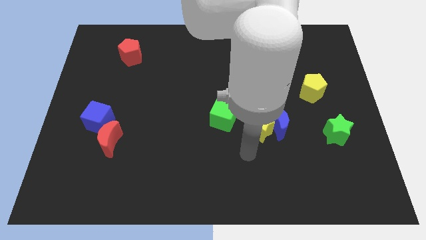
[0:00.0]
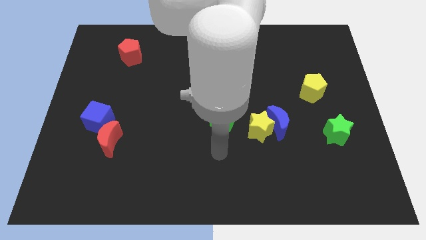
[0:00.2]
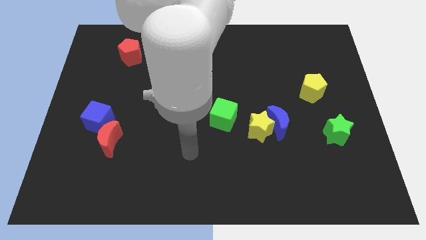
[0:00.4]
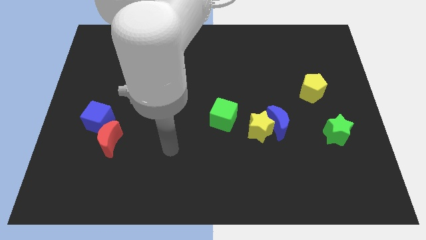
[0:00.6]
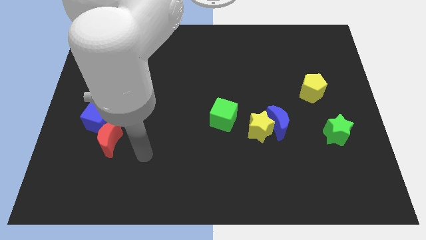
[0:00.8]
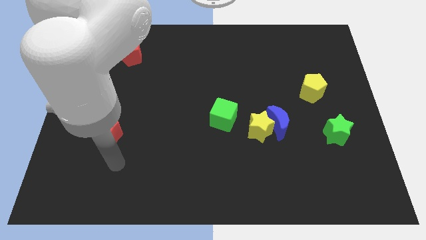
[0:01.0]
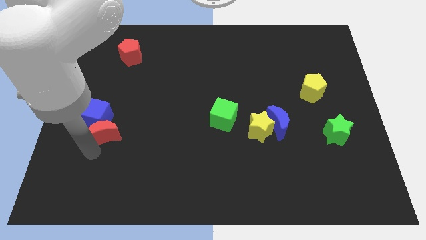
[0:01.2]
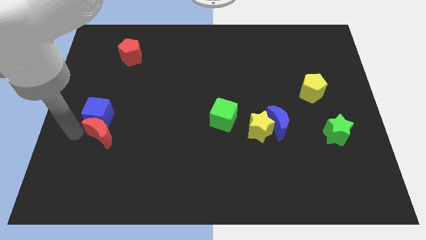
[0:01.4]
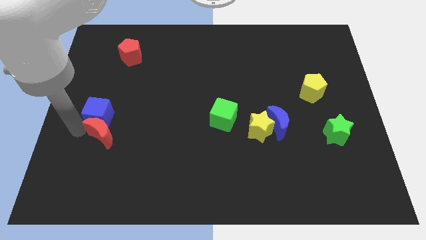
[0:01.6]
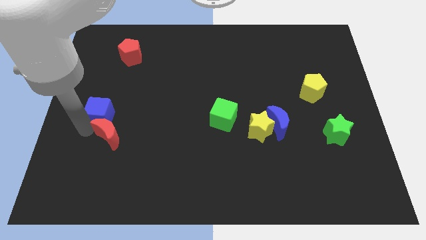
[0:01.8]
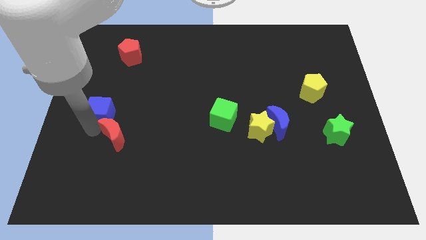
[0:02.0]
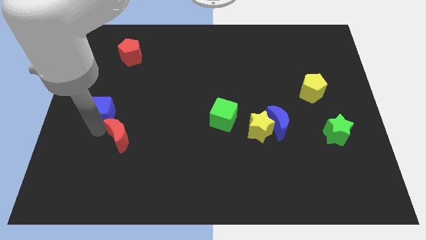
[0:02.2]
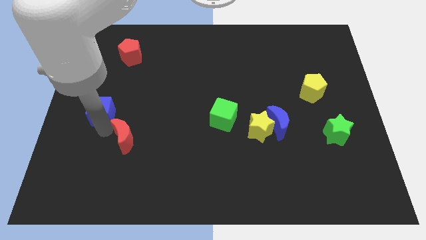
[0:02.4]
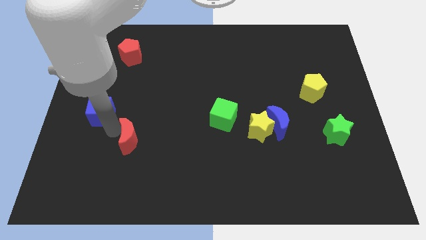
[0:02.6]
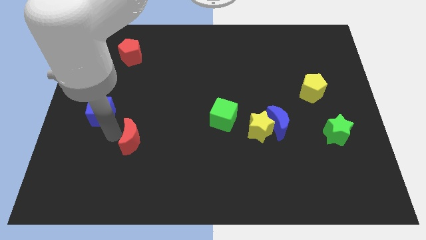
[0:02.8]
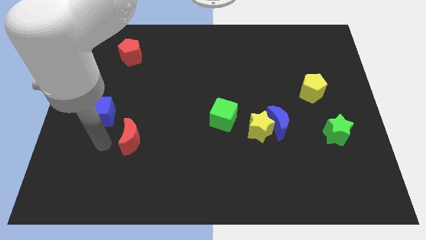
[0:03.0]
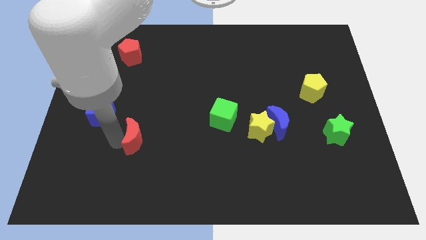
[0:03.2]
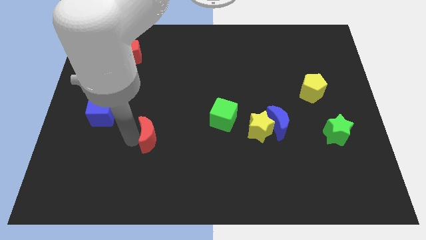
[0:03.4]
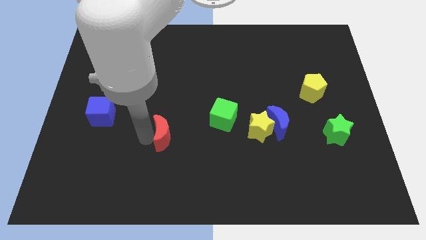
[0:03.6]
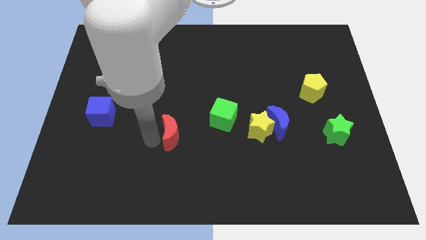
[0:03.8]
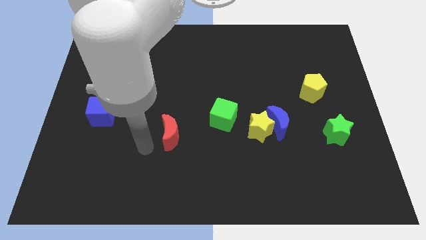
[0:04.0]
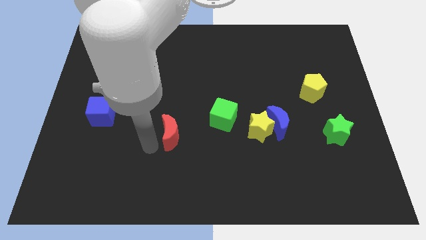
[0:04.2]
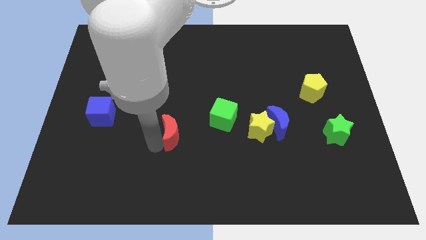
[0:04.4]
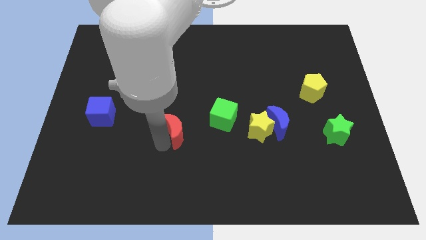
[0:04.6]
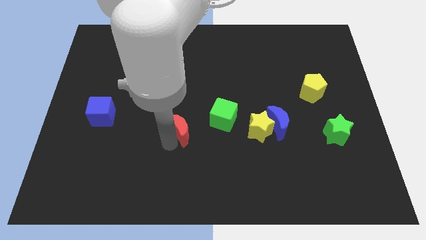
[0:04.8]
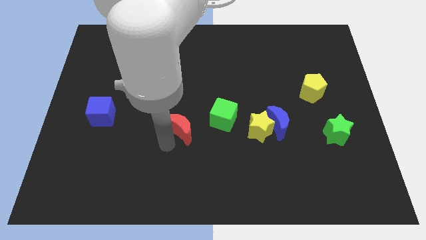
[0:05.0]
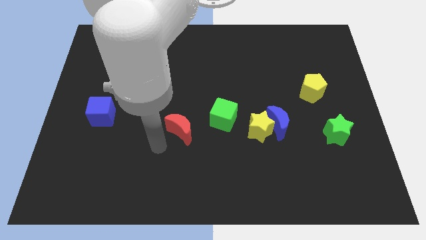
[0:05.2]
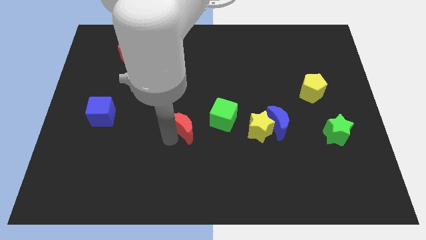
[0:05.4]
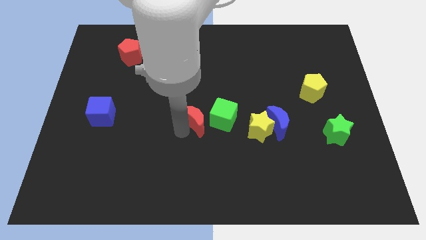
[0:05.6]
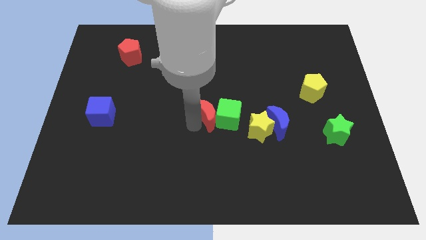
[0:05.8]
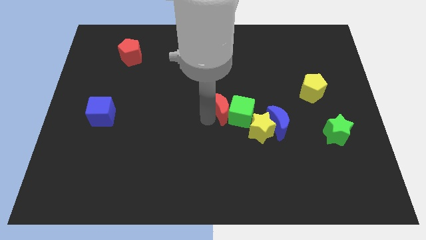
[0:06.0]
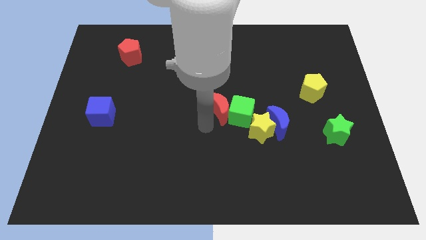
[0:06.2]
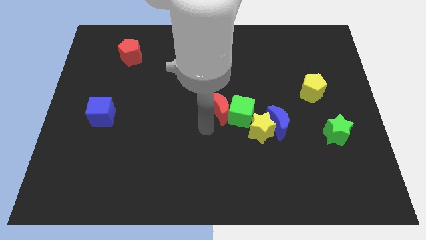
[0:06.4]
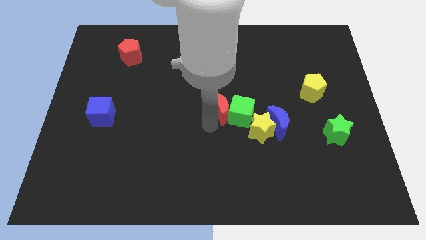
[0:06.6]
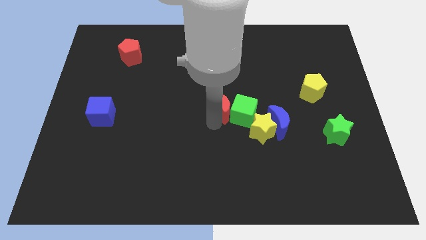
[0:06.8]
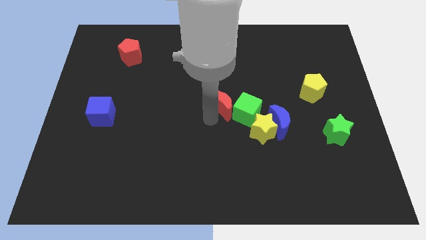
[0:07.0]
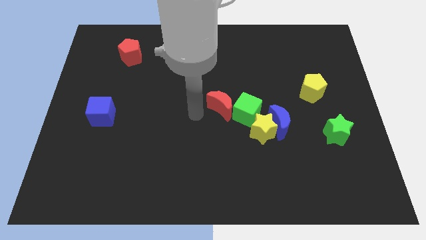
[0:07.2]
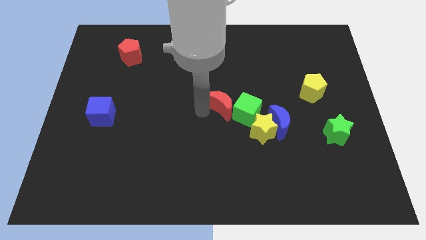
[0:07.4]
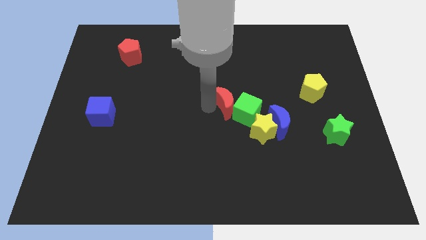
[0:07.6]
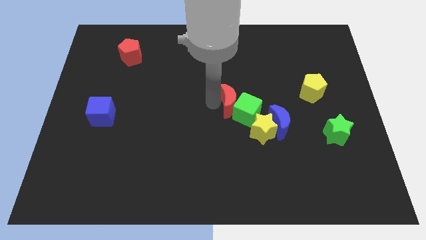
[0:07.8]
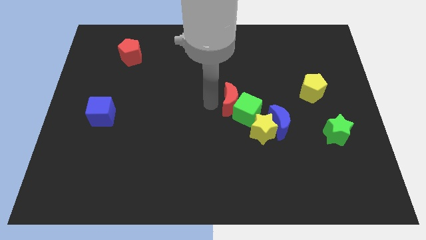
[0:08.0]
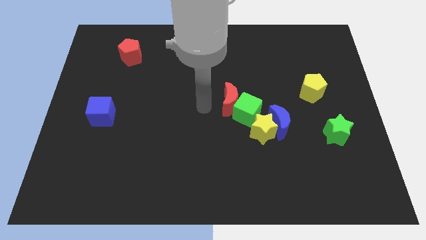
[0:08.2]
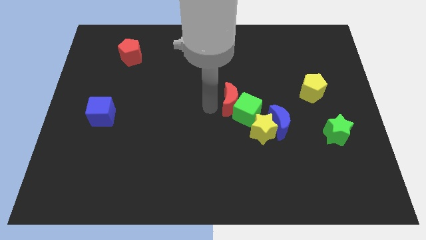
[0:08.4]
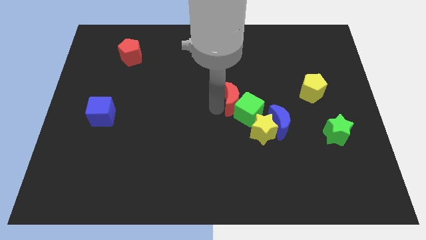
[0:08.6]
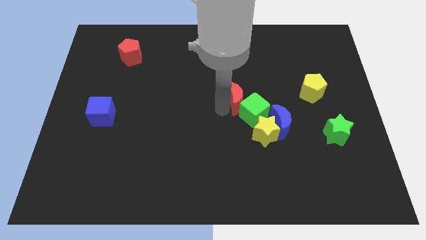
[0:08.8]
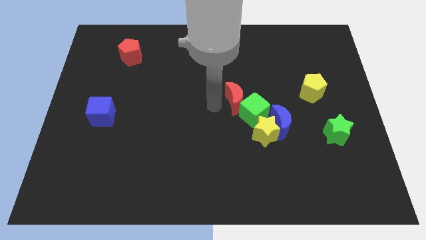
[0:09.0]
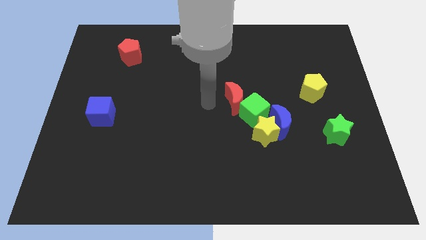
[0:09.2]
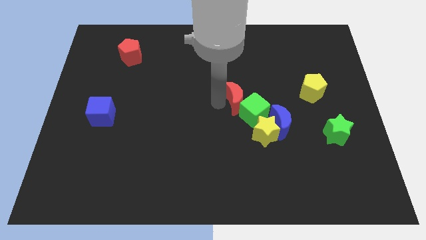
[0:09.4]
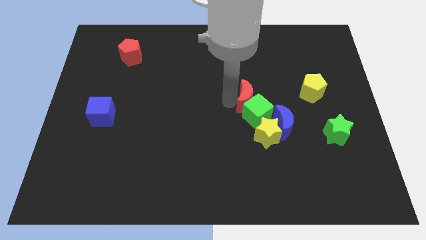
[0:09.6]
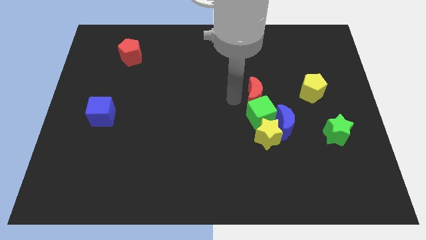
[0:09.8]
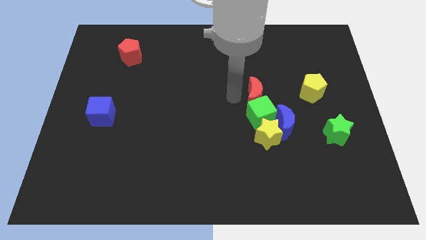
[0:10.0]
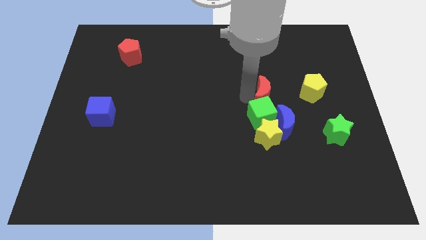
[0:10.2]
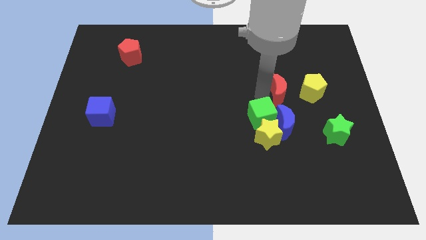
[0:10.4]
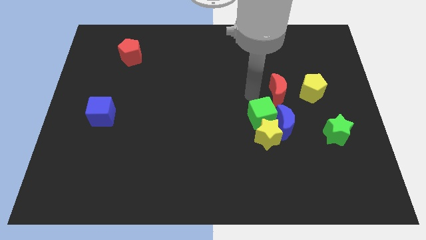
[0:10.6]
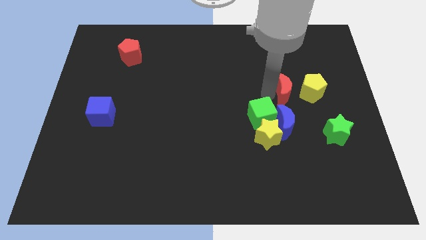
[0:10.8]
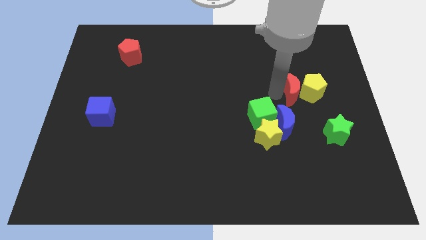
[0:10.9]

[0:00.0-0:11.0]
slide the red moon to the yellow pentagon

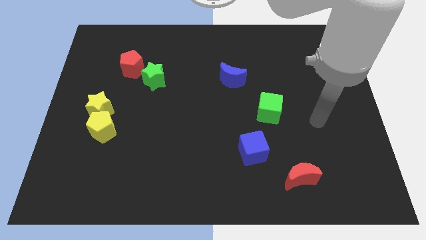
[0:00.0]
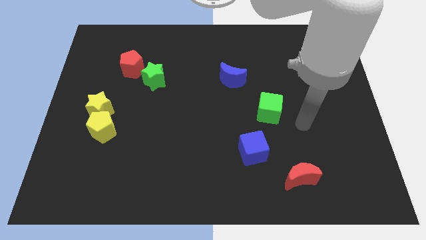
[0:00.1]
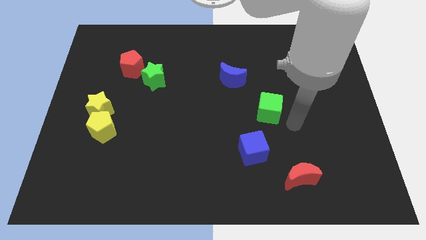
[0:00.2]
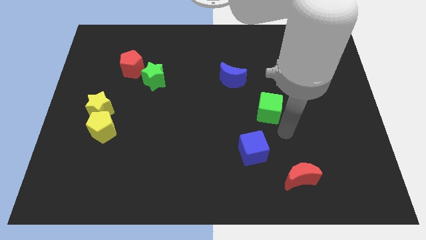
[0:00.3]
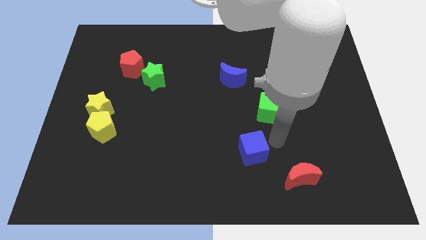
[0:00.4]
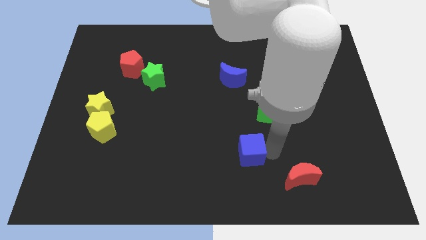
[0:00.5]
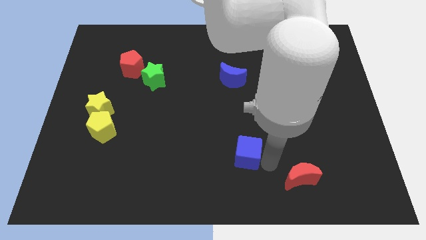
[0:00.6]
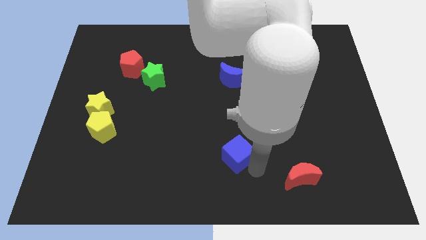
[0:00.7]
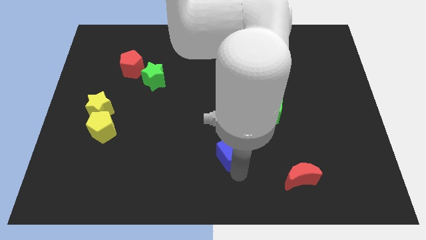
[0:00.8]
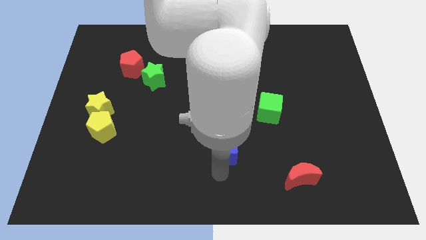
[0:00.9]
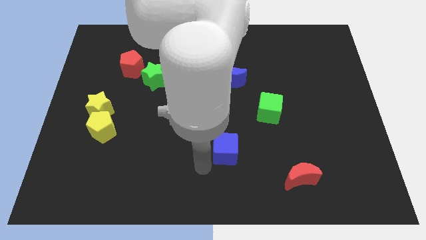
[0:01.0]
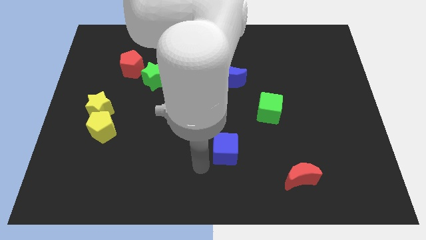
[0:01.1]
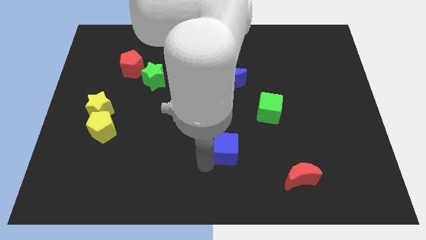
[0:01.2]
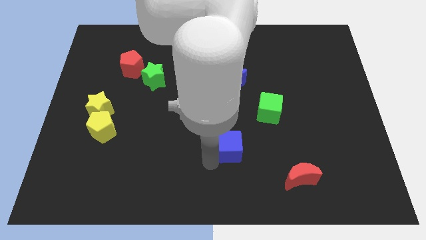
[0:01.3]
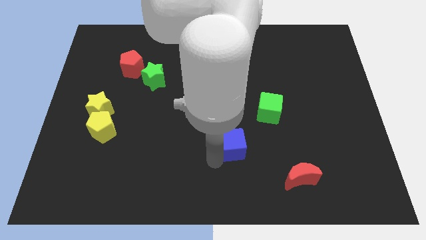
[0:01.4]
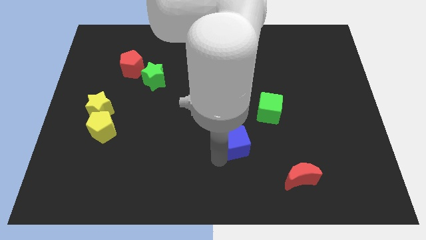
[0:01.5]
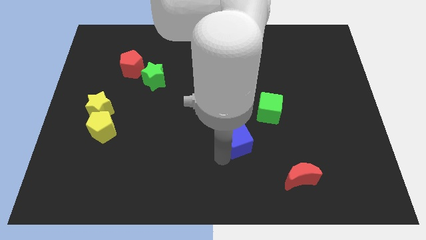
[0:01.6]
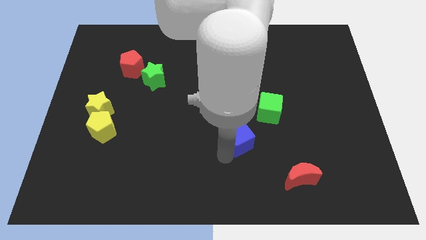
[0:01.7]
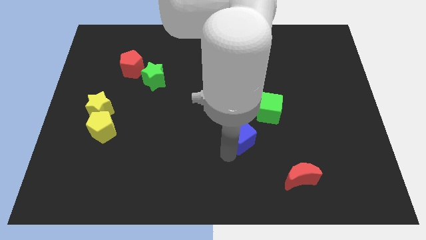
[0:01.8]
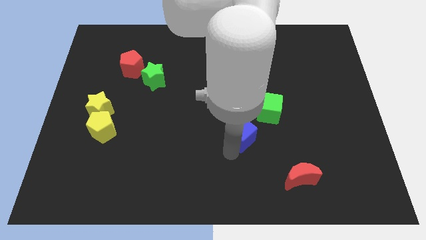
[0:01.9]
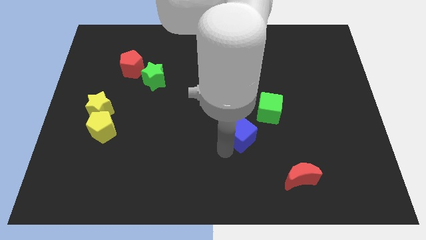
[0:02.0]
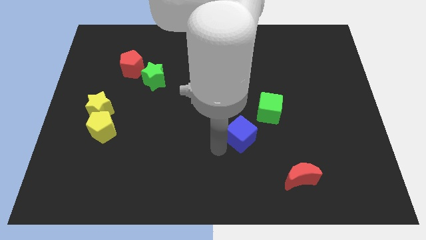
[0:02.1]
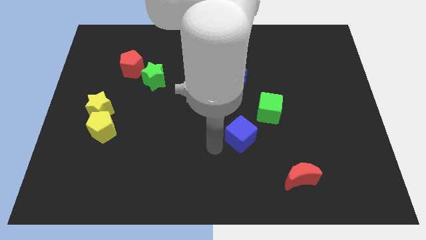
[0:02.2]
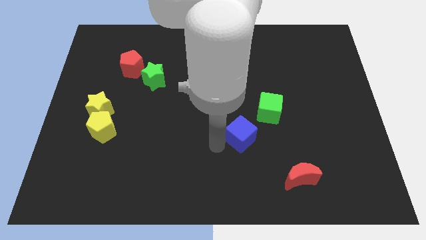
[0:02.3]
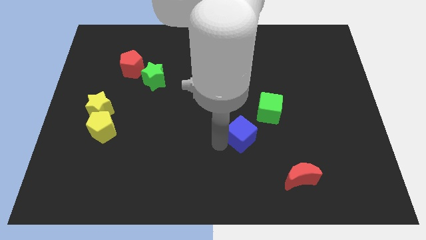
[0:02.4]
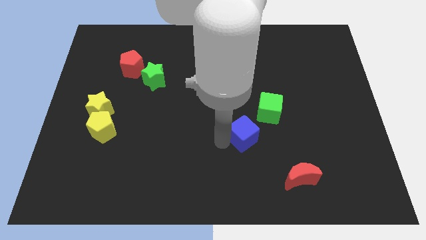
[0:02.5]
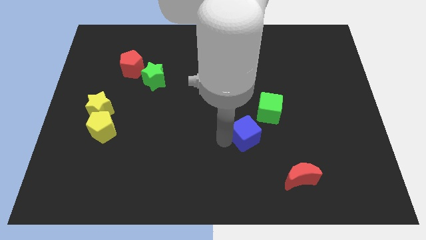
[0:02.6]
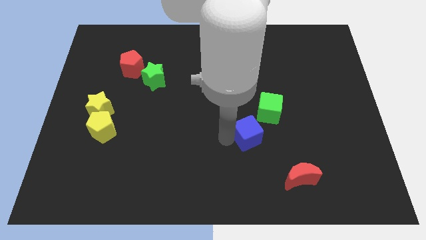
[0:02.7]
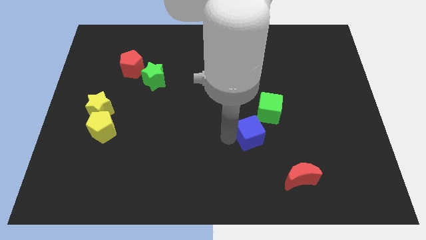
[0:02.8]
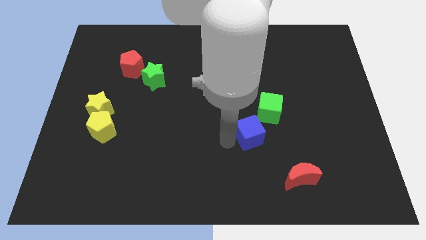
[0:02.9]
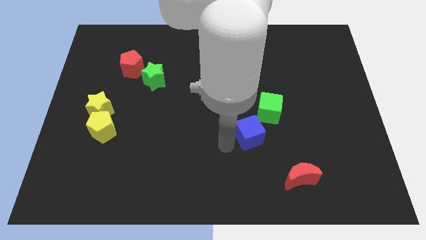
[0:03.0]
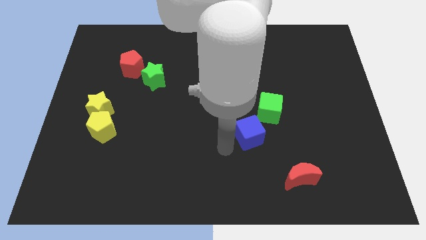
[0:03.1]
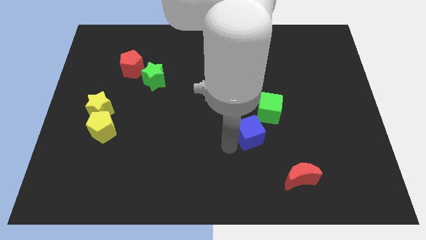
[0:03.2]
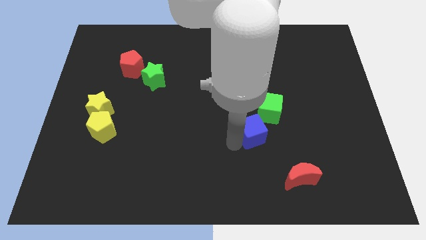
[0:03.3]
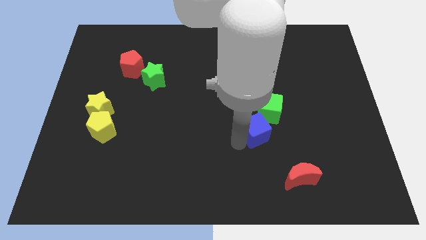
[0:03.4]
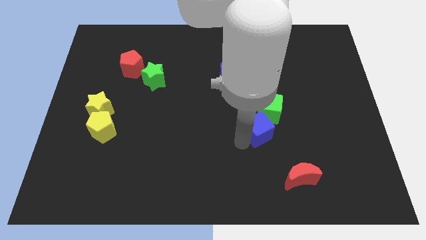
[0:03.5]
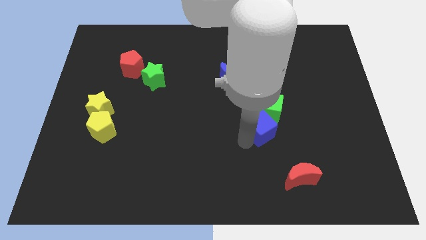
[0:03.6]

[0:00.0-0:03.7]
slide the blue cube towards the green cube

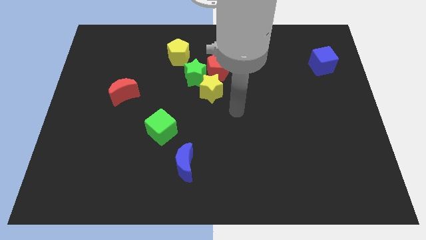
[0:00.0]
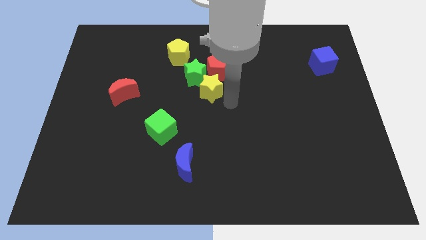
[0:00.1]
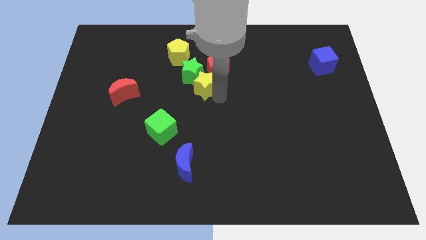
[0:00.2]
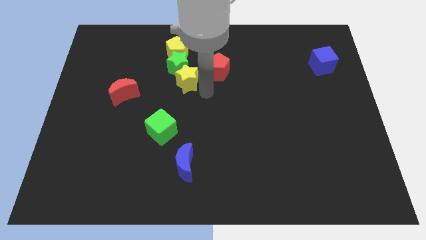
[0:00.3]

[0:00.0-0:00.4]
put the green star towards the yellow pentagon
